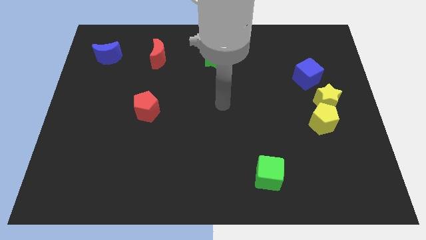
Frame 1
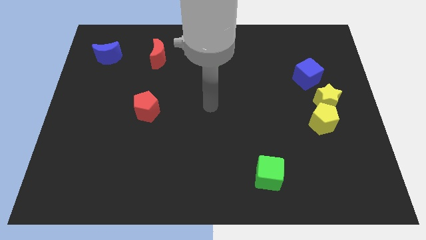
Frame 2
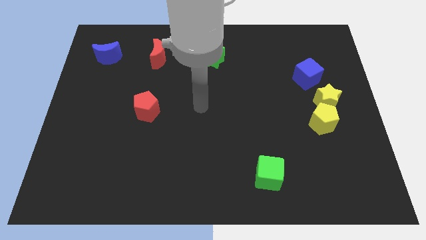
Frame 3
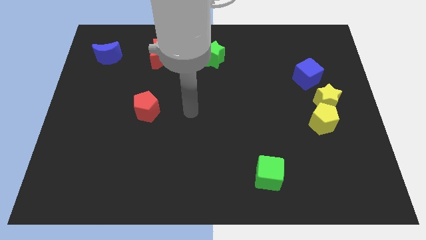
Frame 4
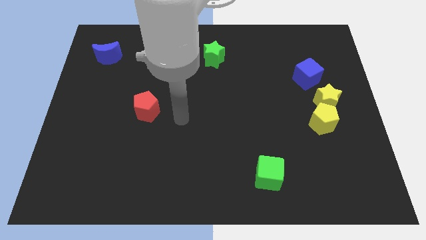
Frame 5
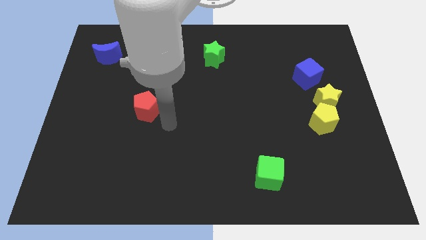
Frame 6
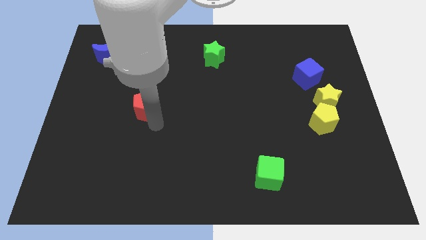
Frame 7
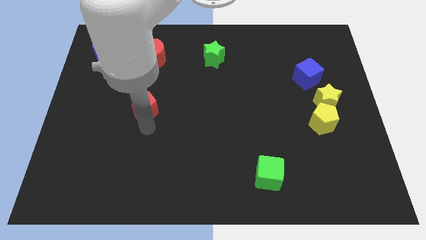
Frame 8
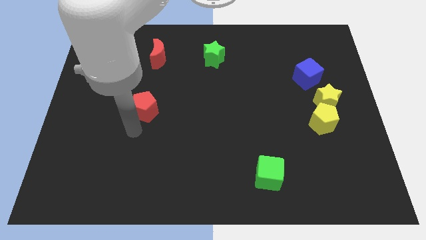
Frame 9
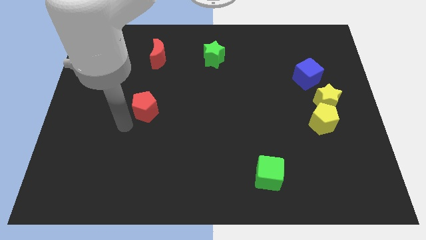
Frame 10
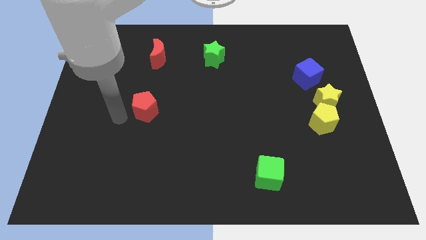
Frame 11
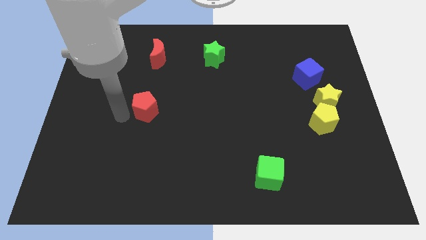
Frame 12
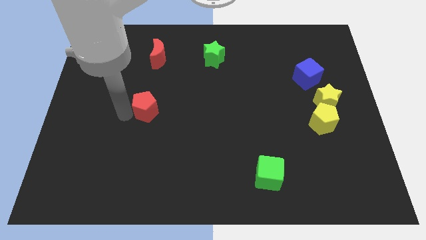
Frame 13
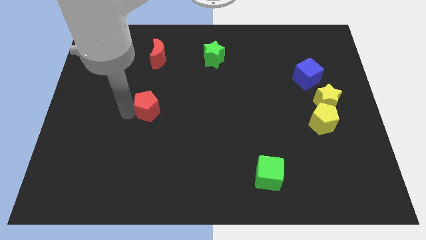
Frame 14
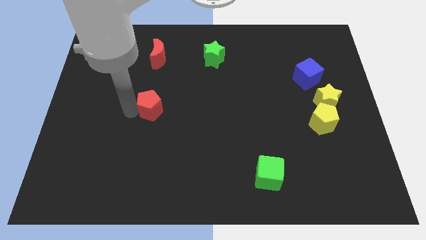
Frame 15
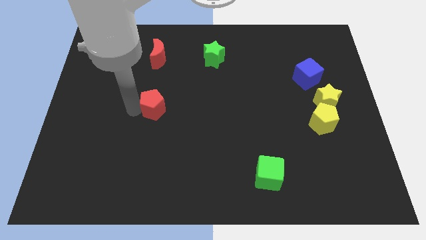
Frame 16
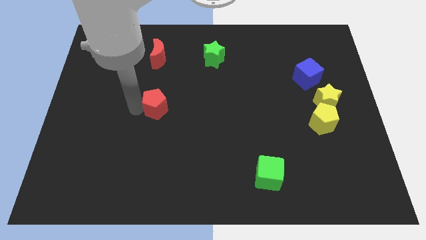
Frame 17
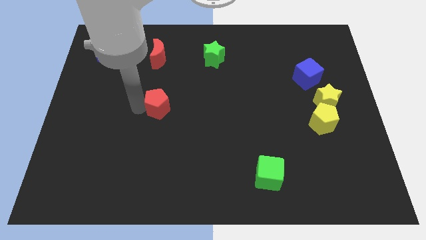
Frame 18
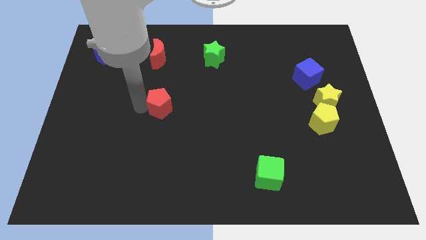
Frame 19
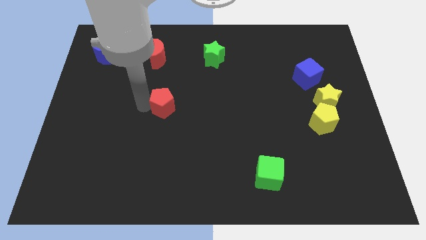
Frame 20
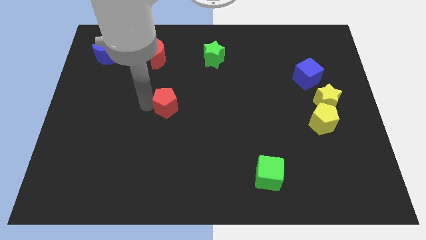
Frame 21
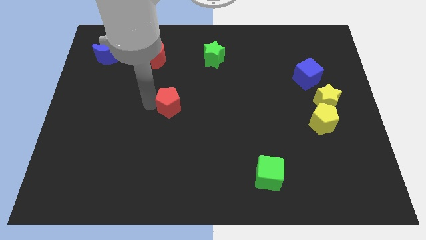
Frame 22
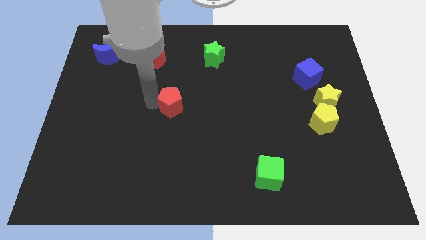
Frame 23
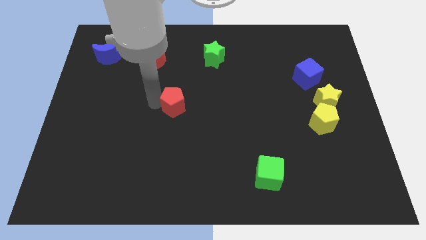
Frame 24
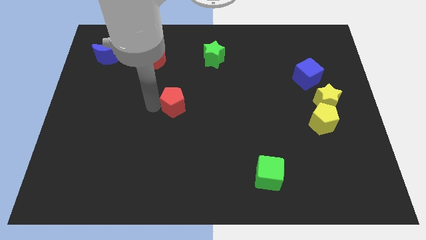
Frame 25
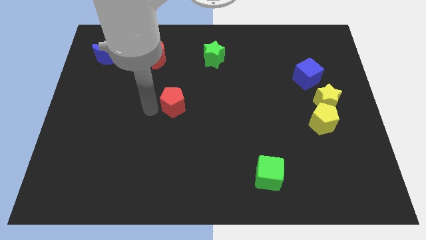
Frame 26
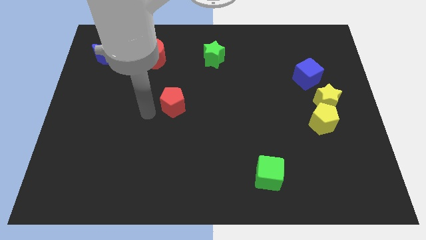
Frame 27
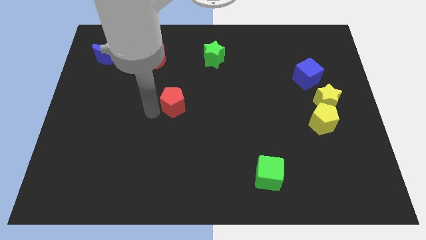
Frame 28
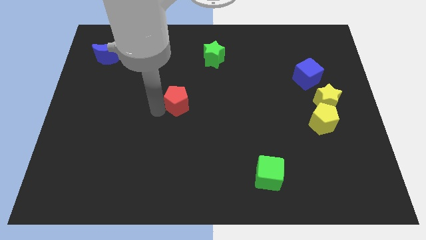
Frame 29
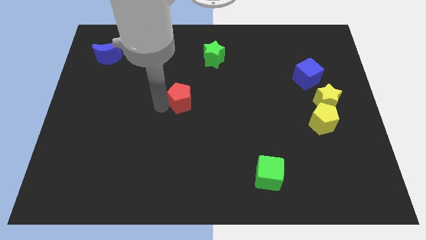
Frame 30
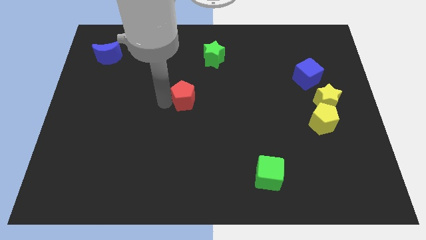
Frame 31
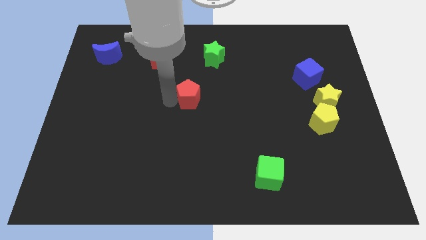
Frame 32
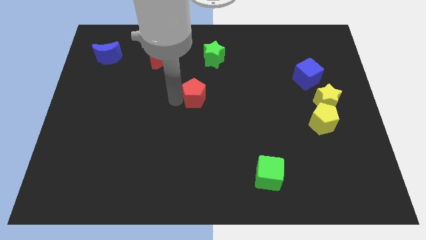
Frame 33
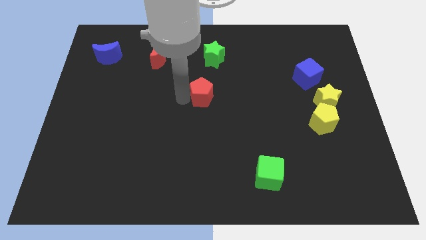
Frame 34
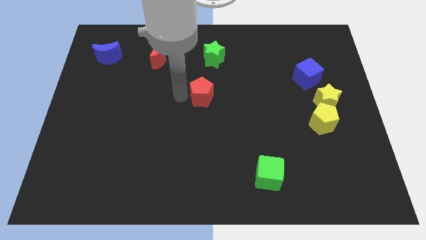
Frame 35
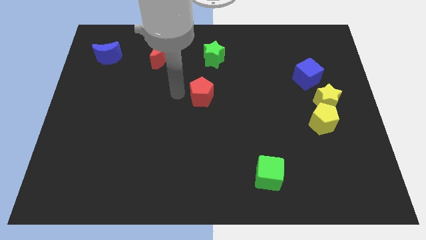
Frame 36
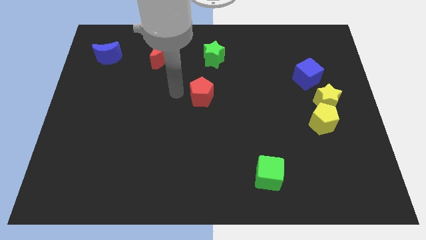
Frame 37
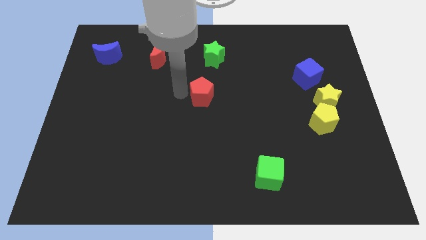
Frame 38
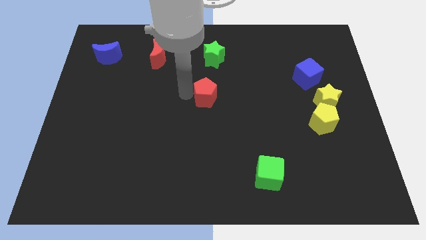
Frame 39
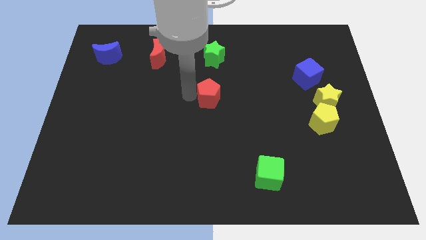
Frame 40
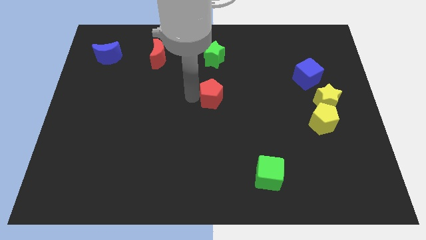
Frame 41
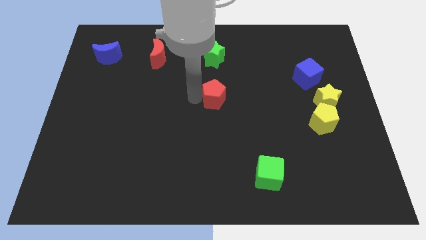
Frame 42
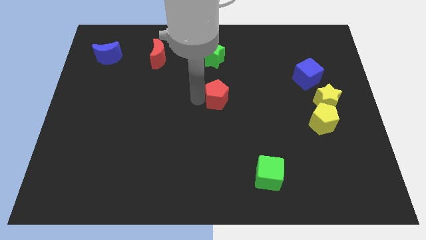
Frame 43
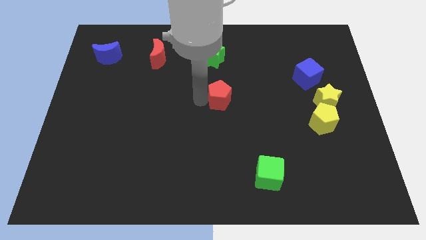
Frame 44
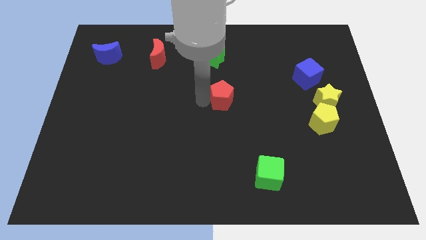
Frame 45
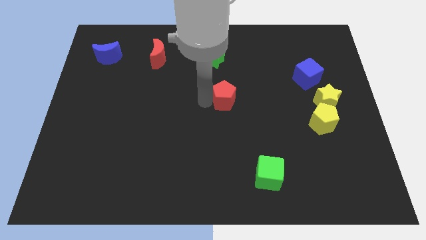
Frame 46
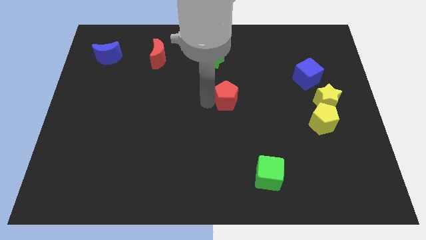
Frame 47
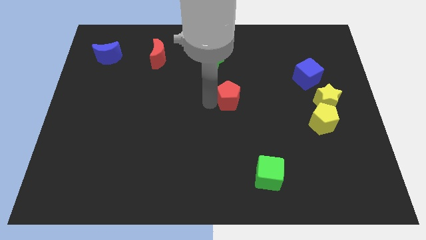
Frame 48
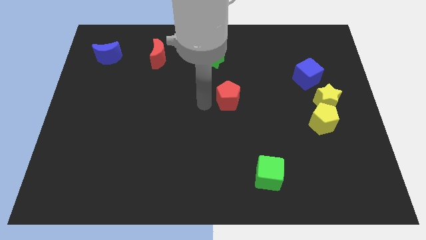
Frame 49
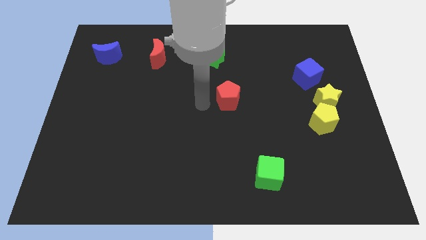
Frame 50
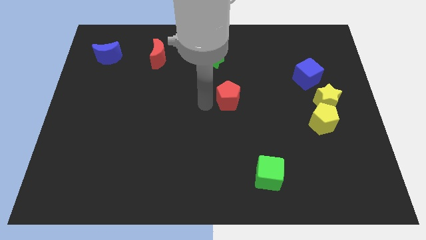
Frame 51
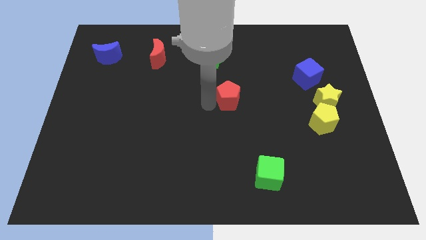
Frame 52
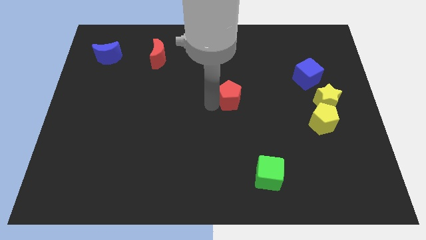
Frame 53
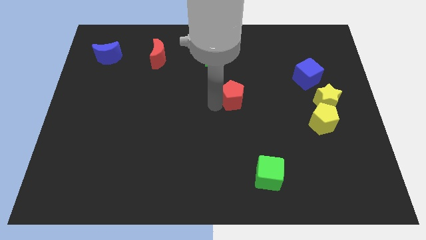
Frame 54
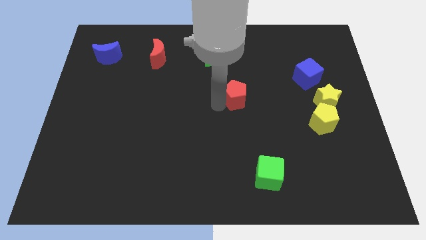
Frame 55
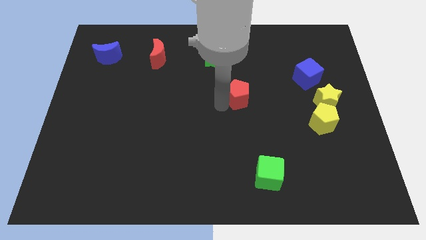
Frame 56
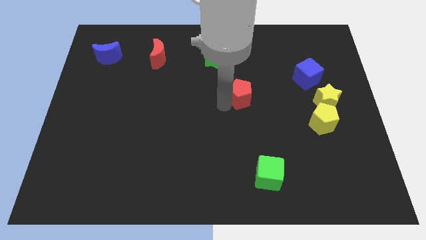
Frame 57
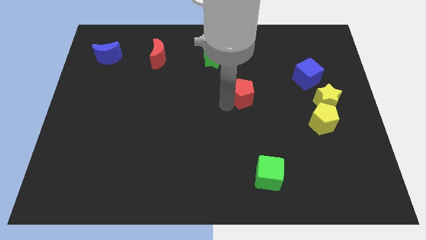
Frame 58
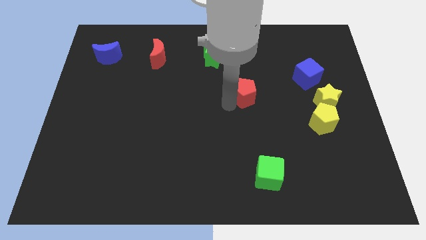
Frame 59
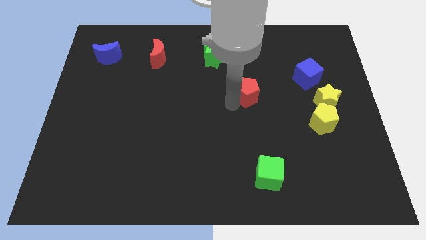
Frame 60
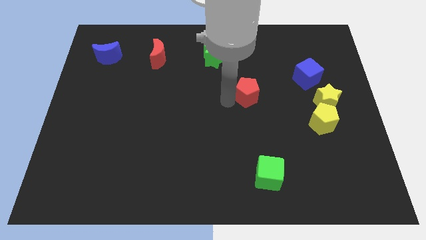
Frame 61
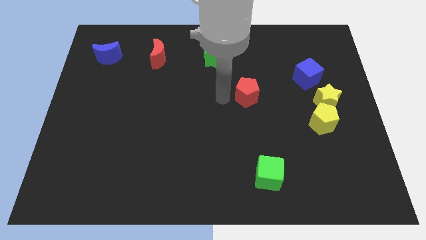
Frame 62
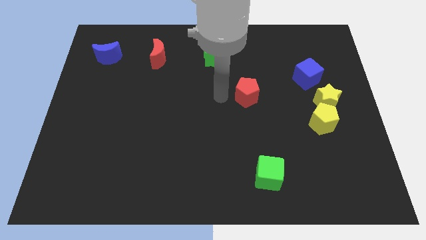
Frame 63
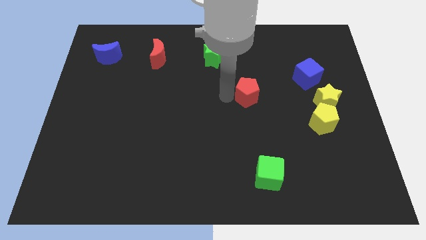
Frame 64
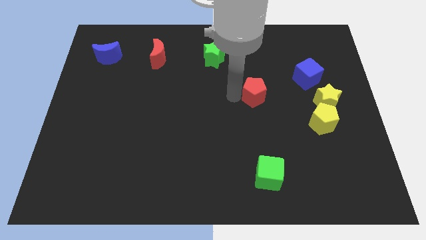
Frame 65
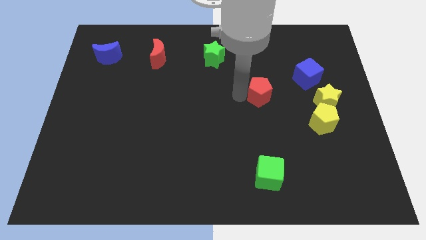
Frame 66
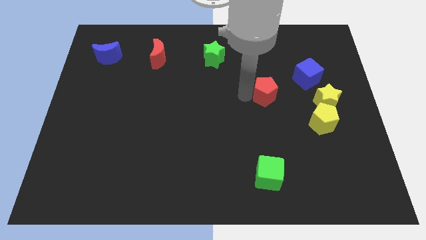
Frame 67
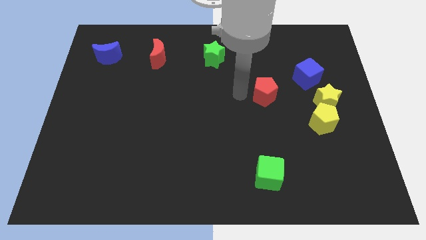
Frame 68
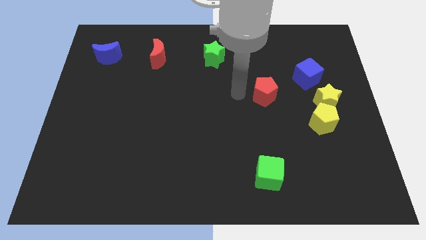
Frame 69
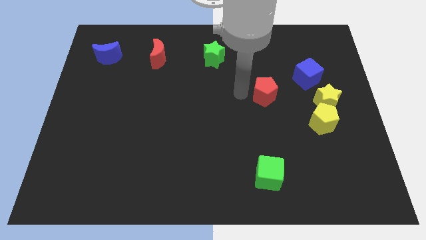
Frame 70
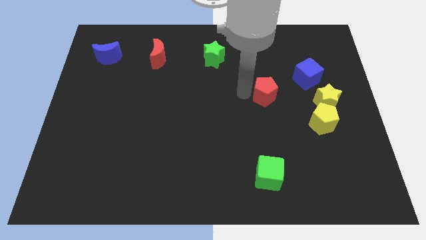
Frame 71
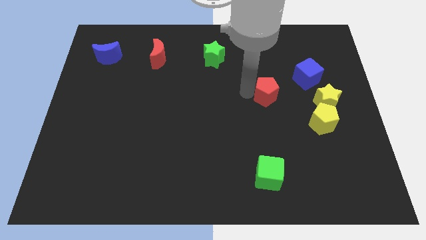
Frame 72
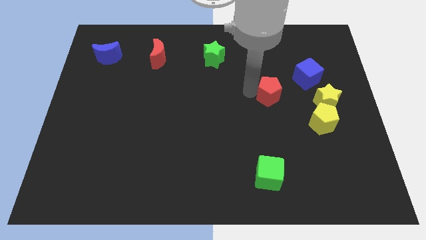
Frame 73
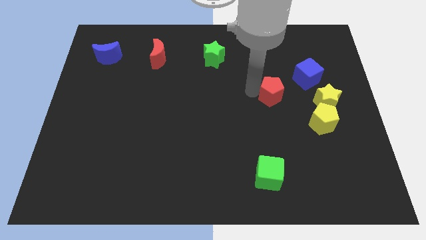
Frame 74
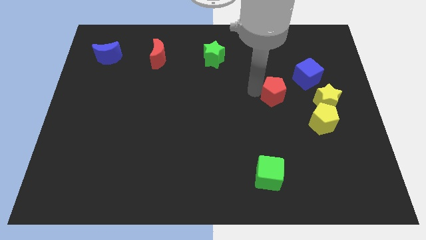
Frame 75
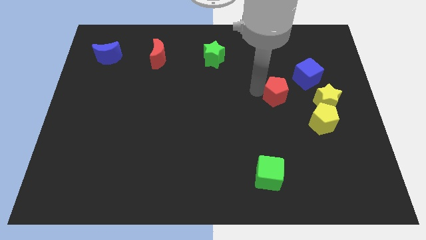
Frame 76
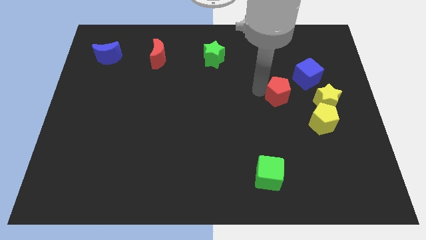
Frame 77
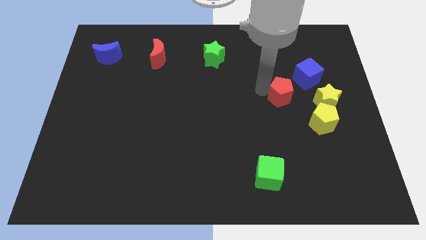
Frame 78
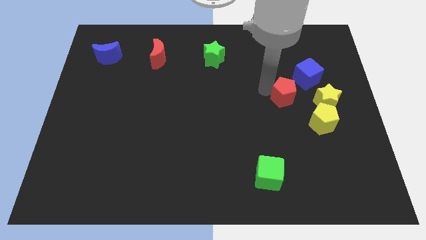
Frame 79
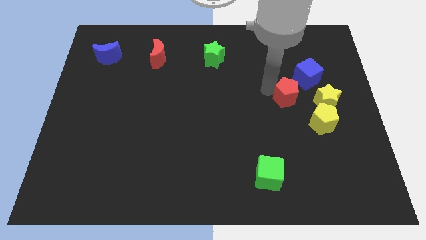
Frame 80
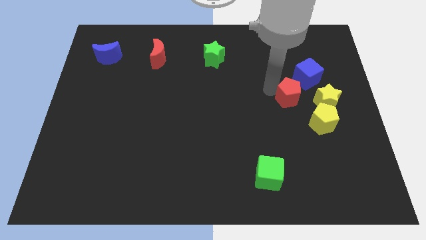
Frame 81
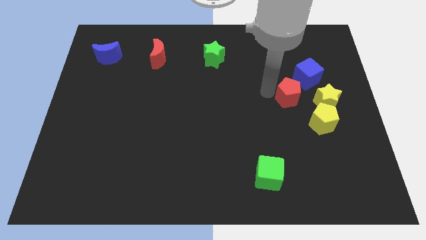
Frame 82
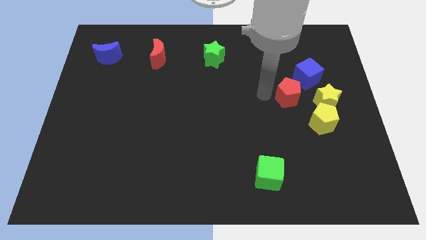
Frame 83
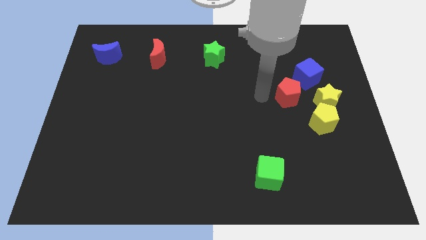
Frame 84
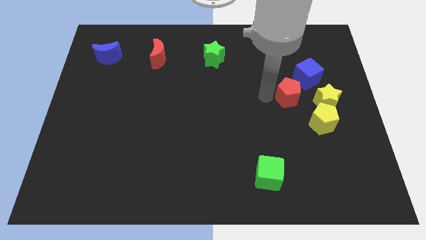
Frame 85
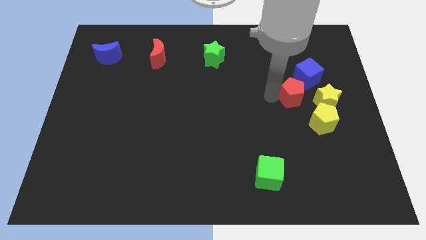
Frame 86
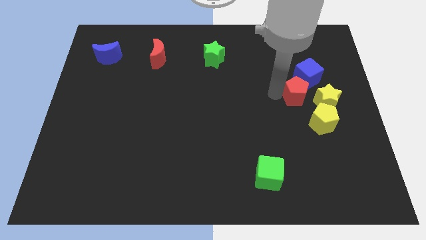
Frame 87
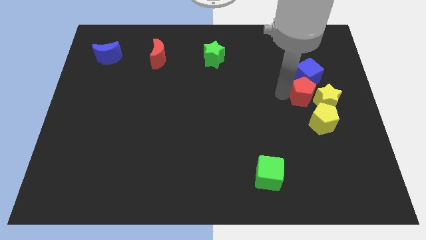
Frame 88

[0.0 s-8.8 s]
slide the red pentagon close to the yellow star
